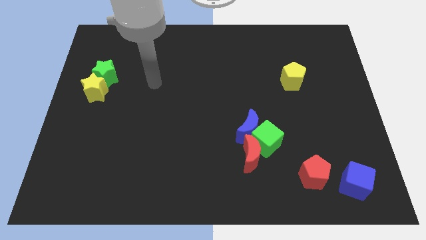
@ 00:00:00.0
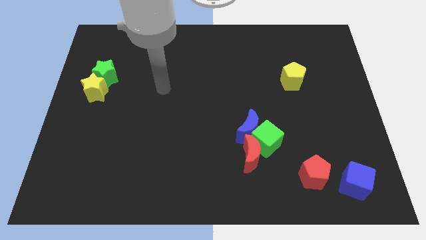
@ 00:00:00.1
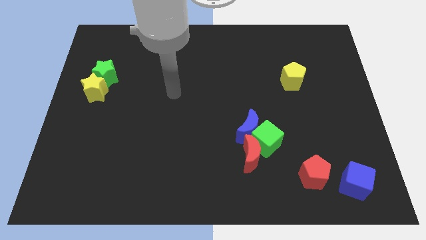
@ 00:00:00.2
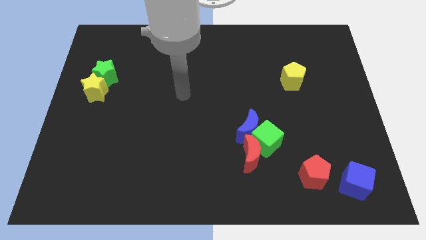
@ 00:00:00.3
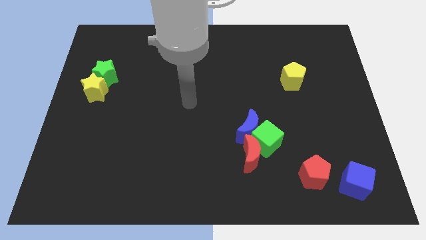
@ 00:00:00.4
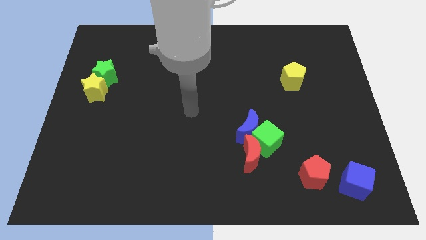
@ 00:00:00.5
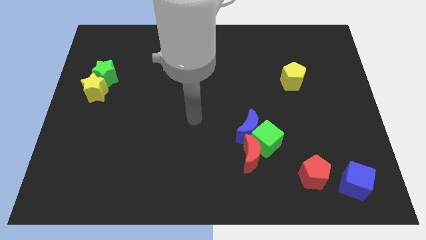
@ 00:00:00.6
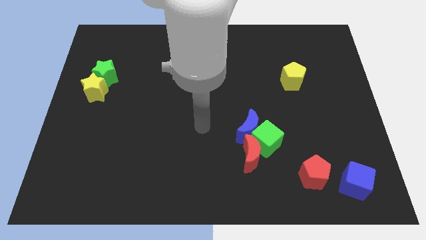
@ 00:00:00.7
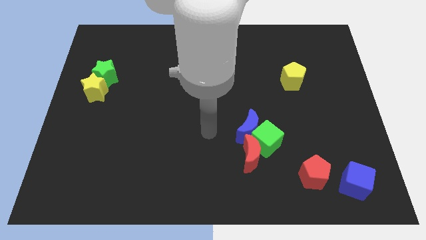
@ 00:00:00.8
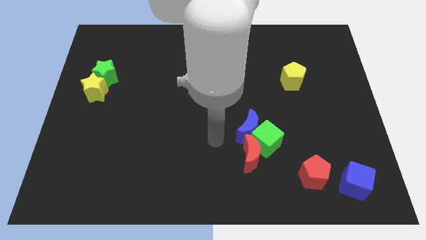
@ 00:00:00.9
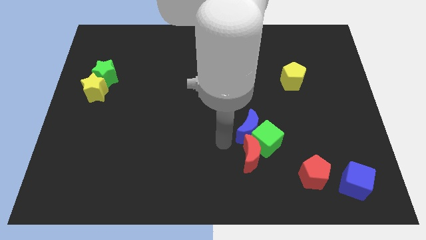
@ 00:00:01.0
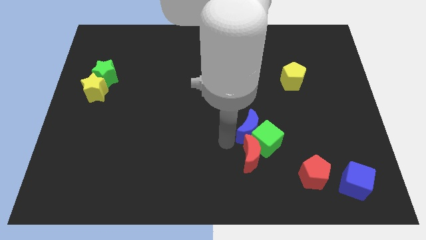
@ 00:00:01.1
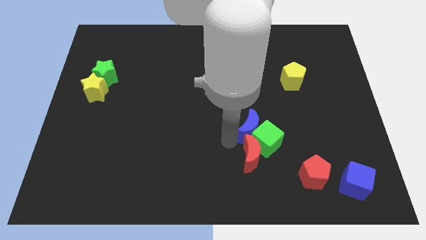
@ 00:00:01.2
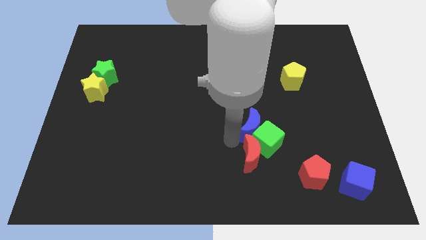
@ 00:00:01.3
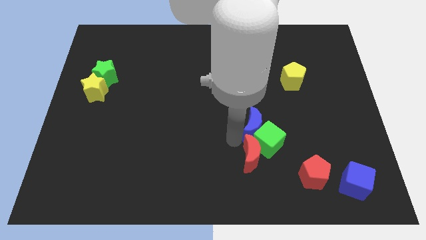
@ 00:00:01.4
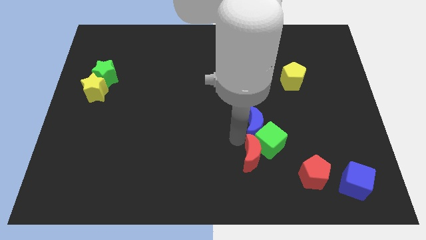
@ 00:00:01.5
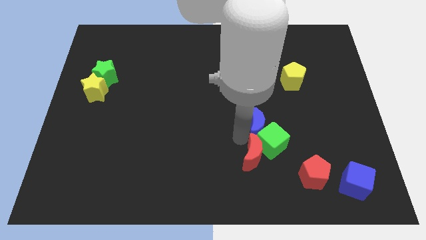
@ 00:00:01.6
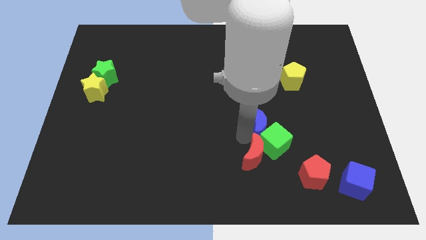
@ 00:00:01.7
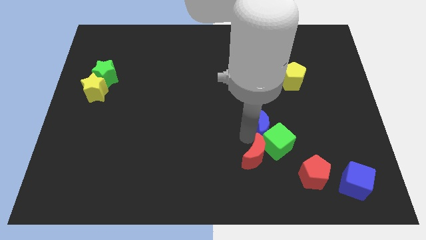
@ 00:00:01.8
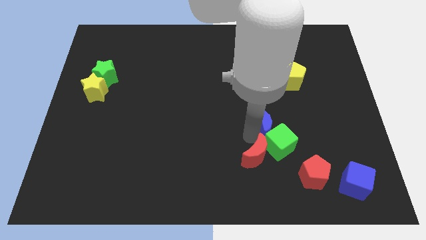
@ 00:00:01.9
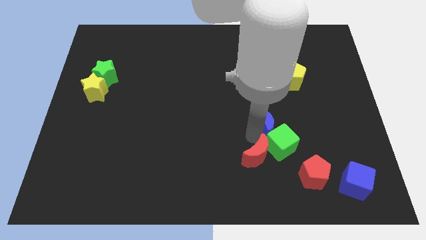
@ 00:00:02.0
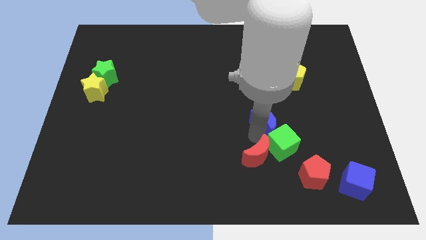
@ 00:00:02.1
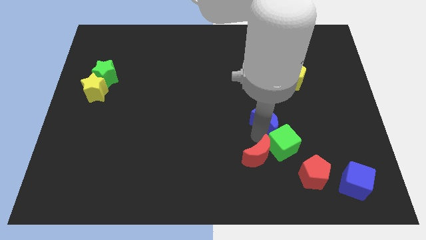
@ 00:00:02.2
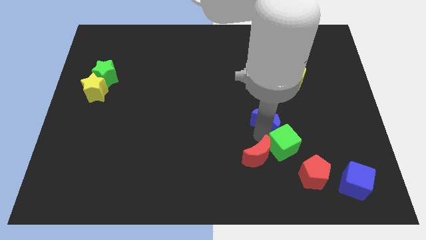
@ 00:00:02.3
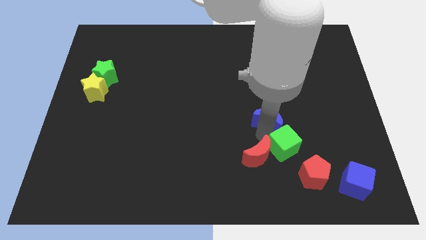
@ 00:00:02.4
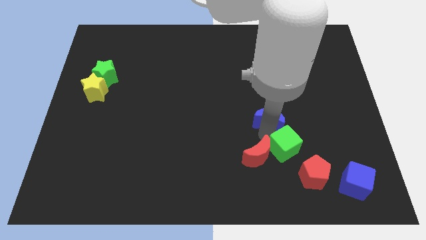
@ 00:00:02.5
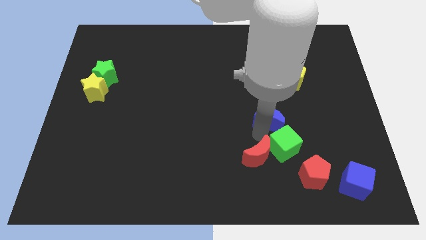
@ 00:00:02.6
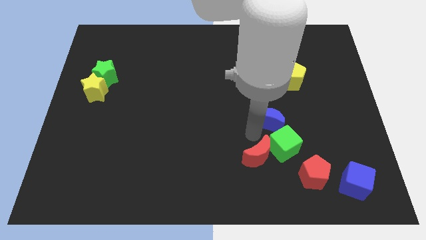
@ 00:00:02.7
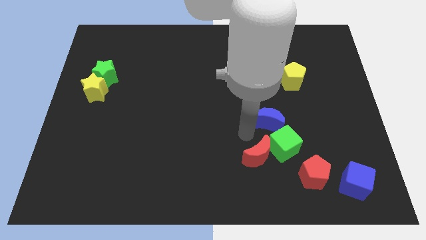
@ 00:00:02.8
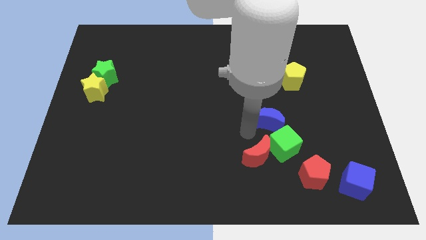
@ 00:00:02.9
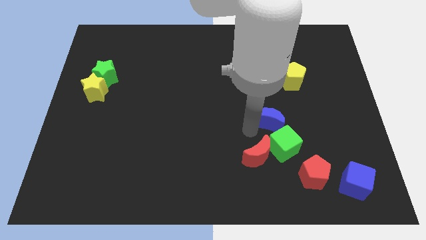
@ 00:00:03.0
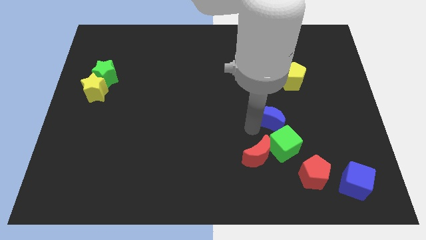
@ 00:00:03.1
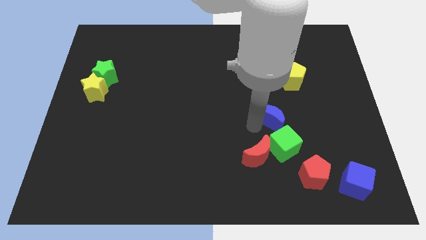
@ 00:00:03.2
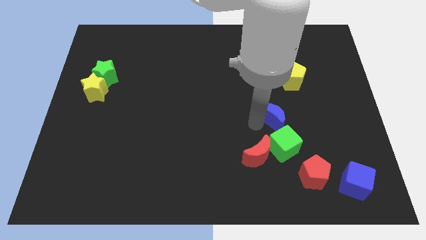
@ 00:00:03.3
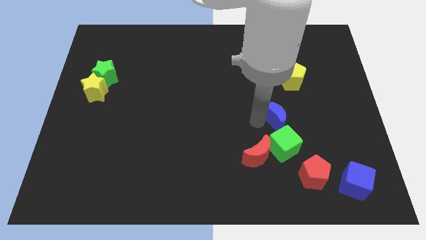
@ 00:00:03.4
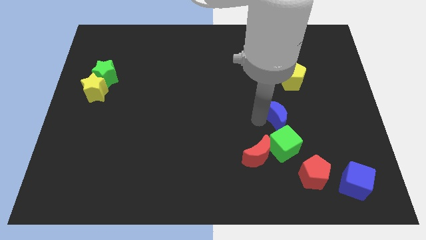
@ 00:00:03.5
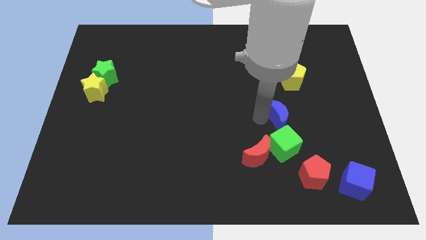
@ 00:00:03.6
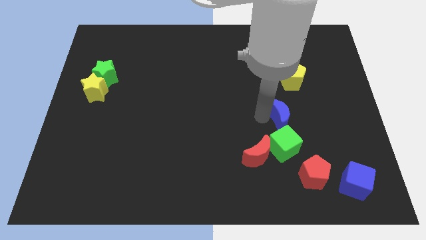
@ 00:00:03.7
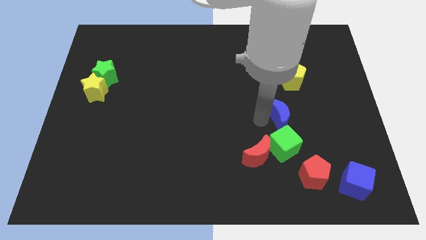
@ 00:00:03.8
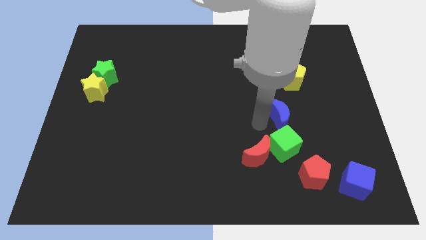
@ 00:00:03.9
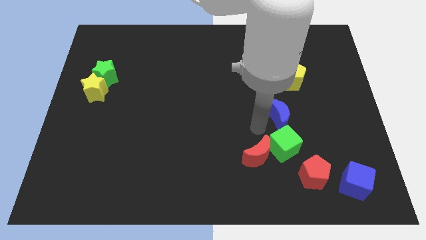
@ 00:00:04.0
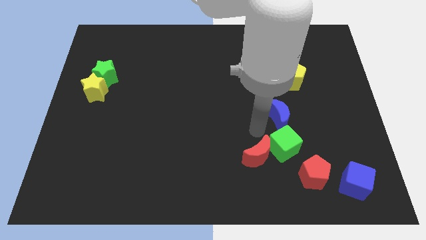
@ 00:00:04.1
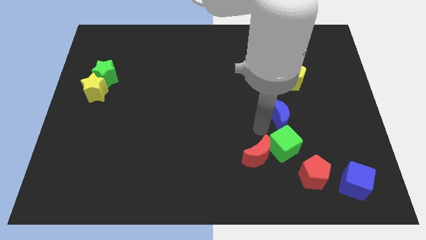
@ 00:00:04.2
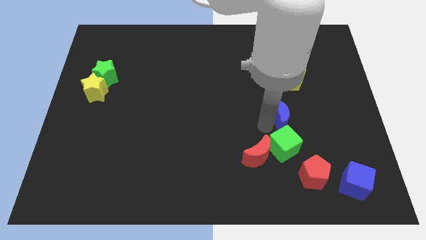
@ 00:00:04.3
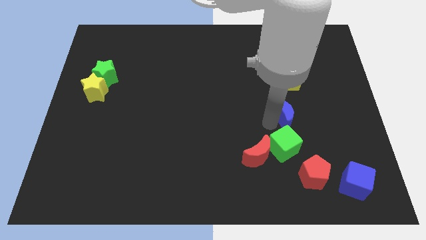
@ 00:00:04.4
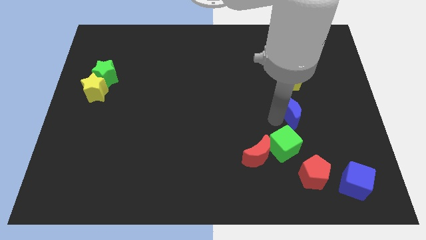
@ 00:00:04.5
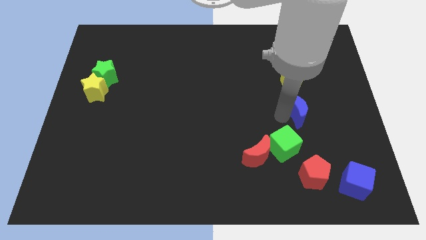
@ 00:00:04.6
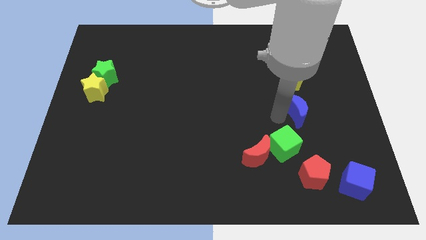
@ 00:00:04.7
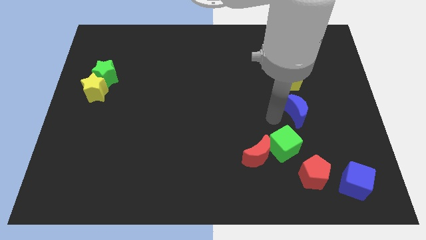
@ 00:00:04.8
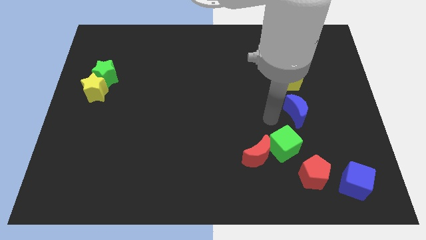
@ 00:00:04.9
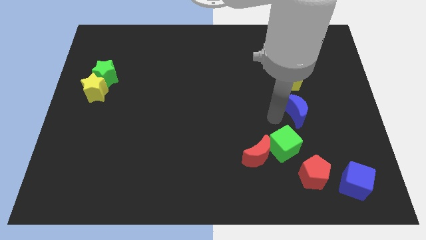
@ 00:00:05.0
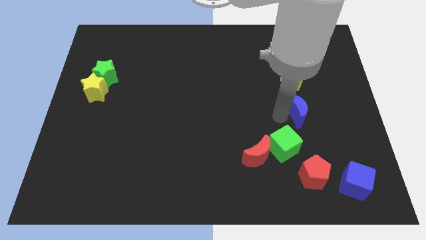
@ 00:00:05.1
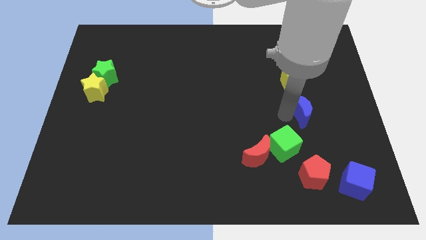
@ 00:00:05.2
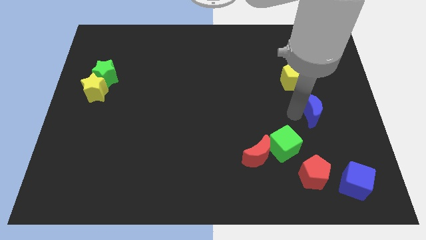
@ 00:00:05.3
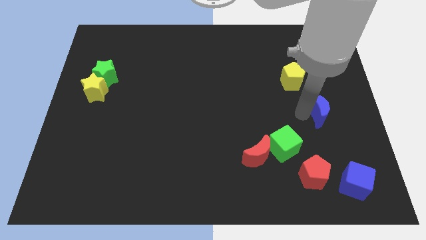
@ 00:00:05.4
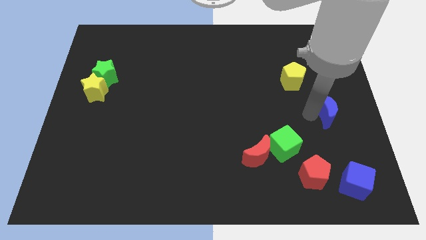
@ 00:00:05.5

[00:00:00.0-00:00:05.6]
slide the blue moon to the right side of the board

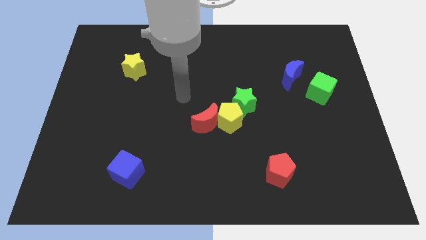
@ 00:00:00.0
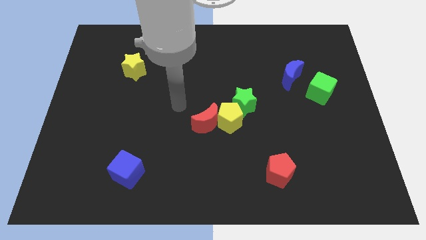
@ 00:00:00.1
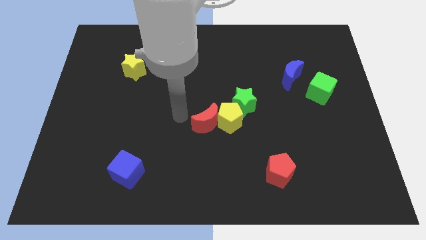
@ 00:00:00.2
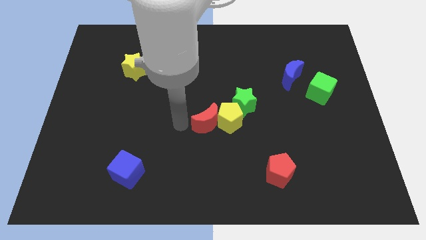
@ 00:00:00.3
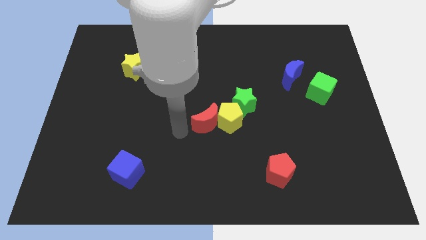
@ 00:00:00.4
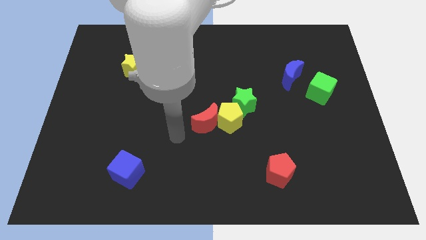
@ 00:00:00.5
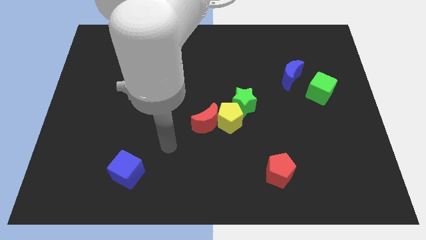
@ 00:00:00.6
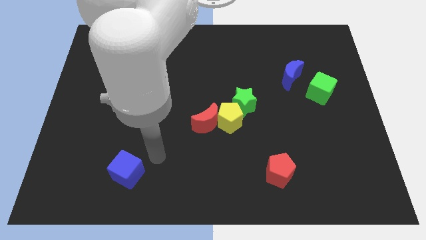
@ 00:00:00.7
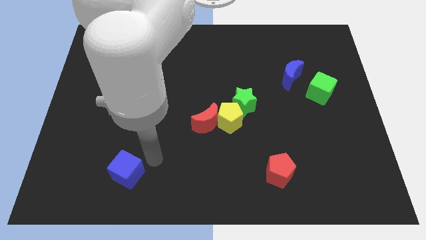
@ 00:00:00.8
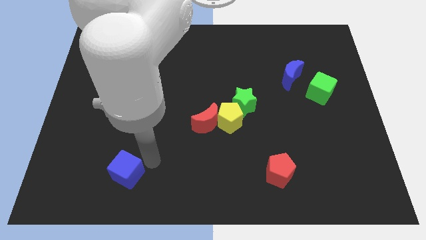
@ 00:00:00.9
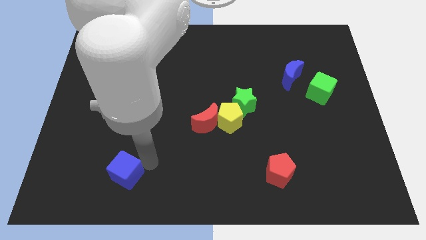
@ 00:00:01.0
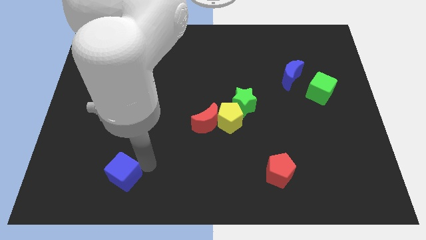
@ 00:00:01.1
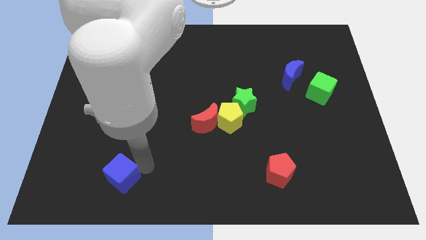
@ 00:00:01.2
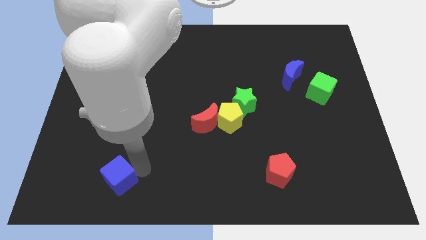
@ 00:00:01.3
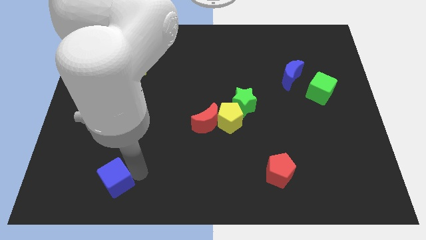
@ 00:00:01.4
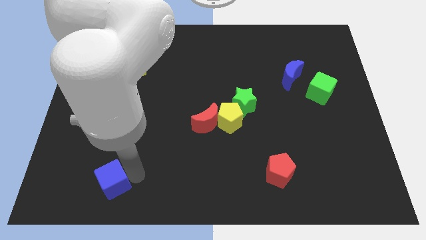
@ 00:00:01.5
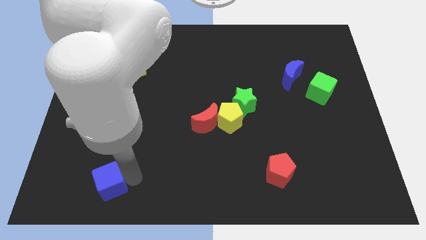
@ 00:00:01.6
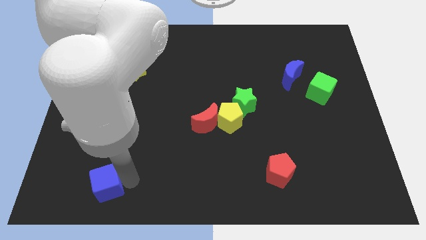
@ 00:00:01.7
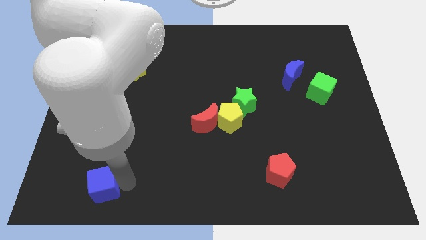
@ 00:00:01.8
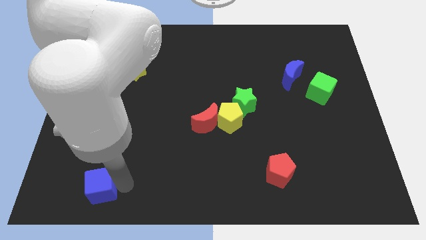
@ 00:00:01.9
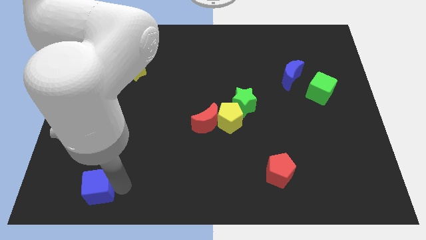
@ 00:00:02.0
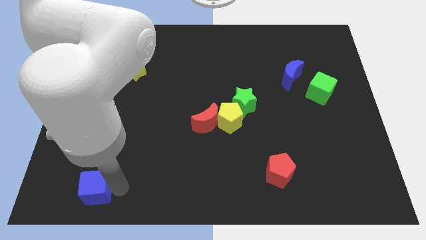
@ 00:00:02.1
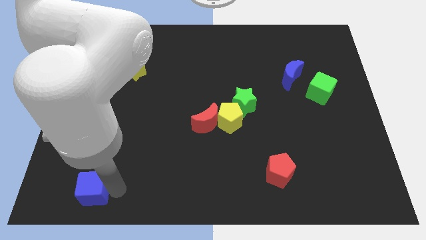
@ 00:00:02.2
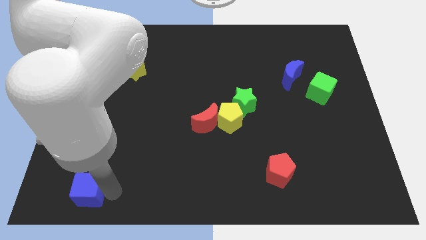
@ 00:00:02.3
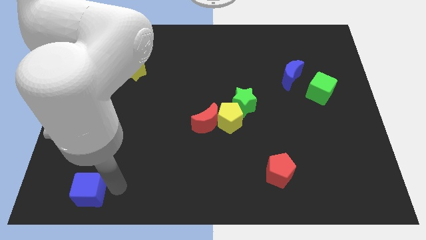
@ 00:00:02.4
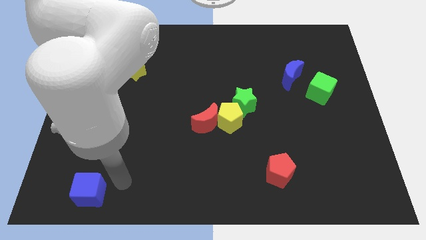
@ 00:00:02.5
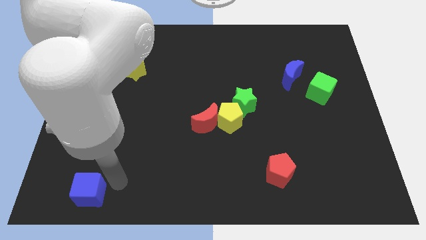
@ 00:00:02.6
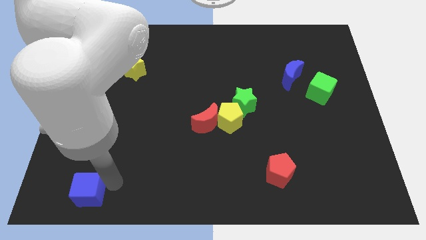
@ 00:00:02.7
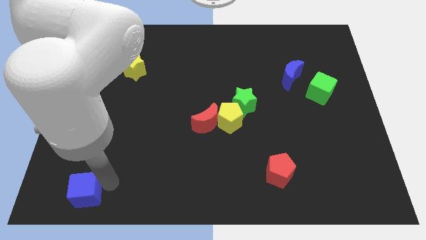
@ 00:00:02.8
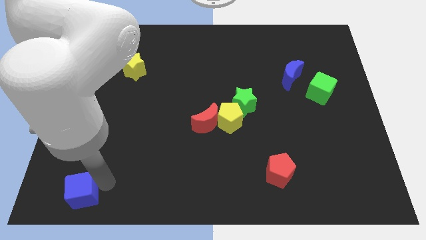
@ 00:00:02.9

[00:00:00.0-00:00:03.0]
move the blue cube to the bottom left of the board
